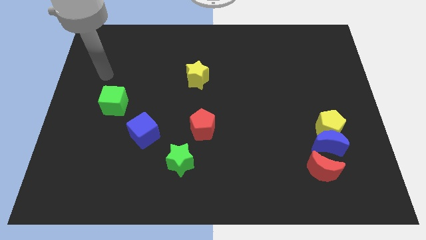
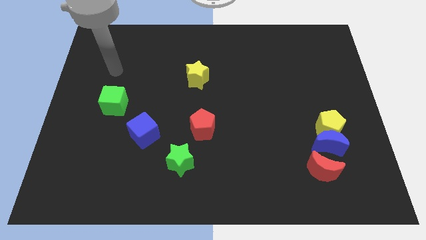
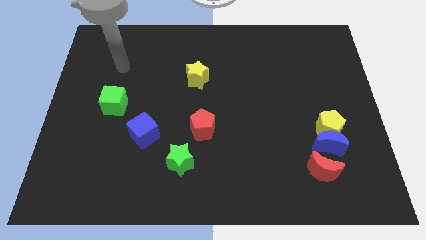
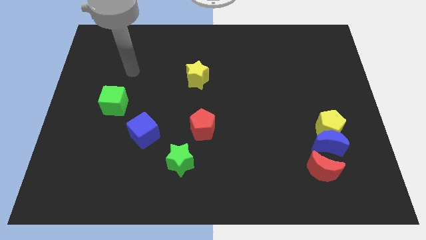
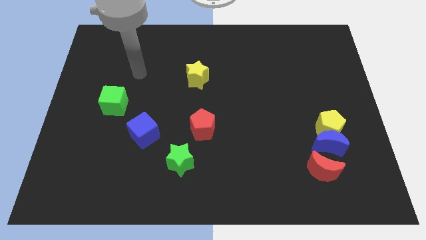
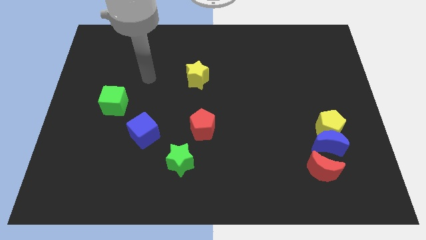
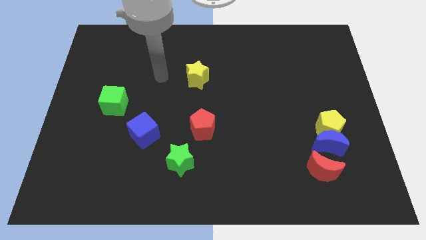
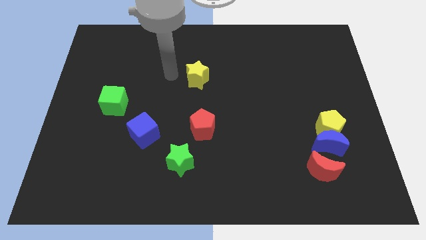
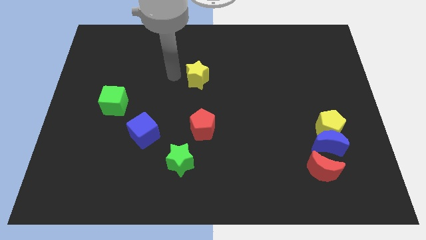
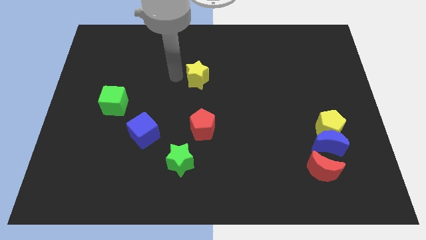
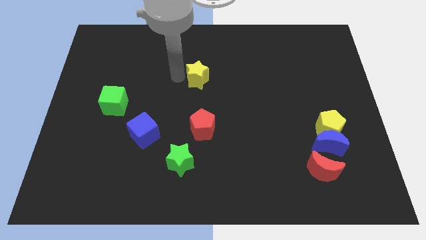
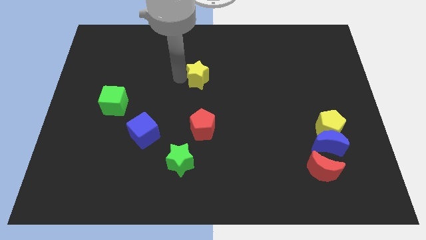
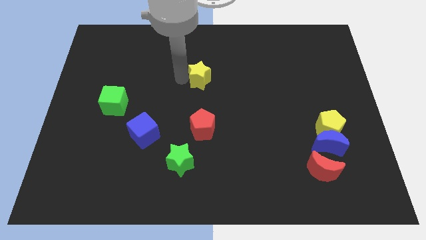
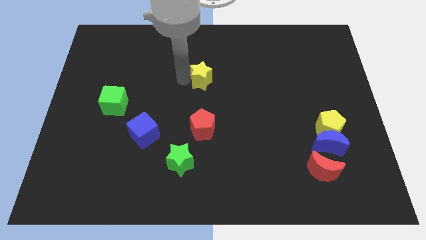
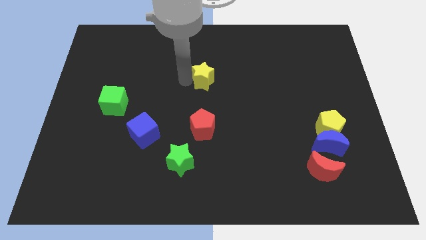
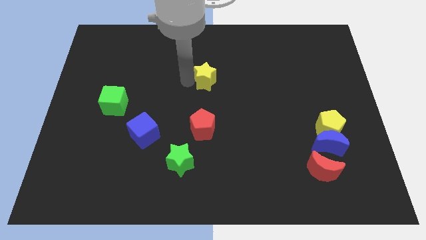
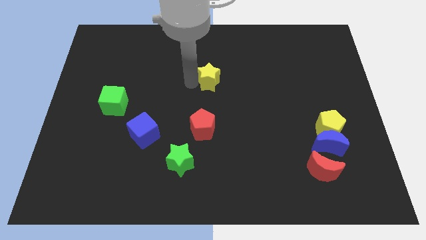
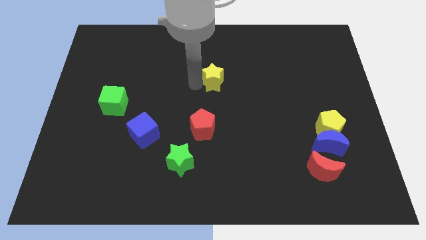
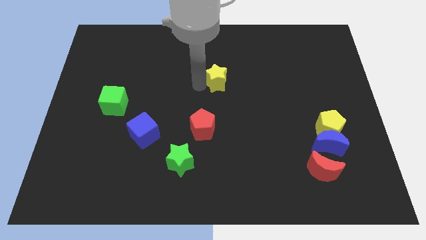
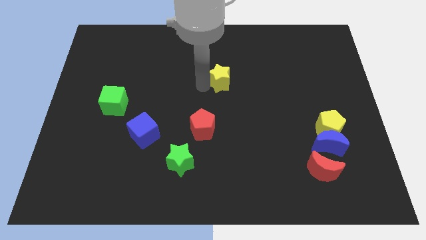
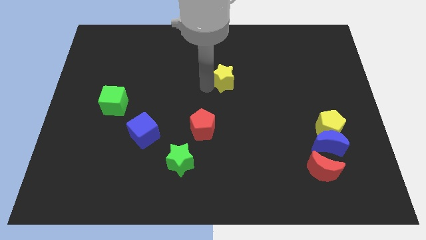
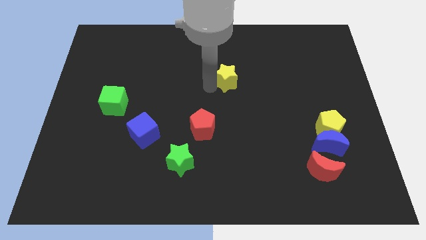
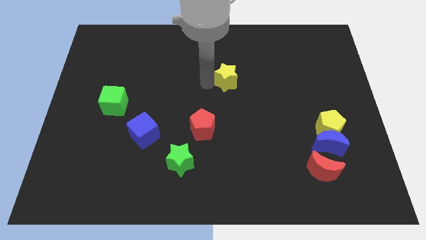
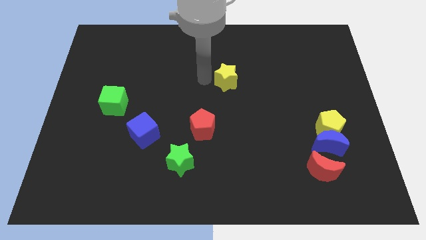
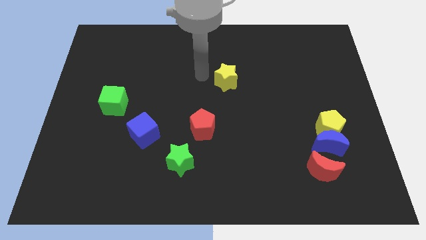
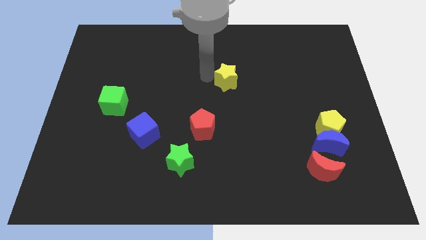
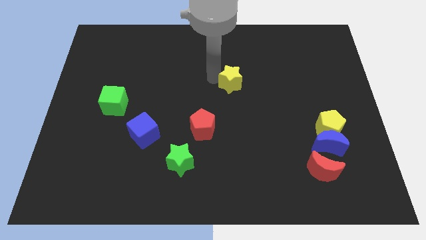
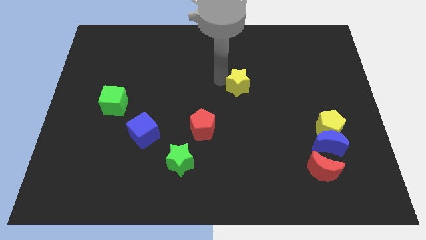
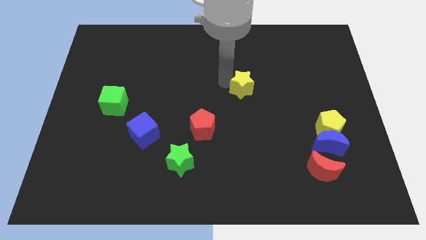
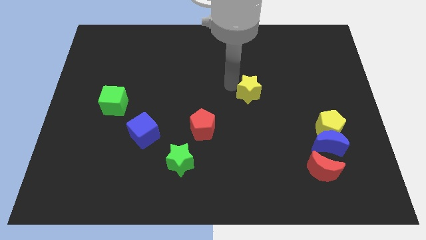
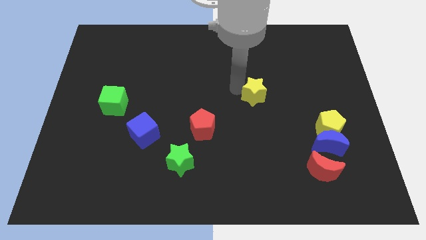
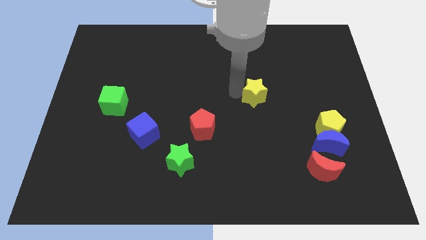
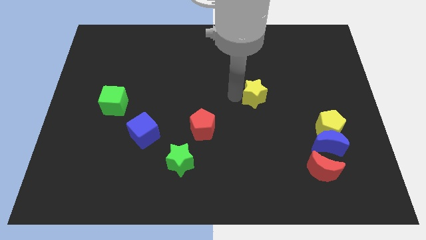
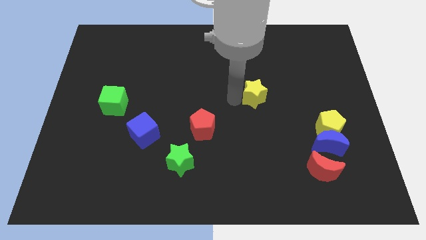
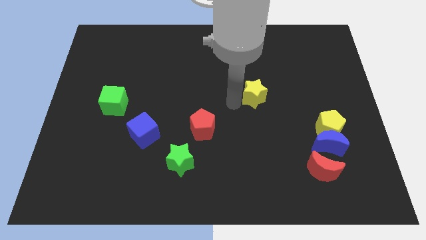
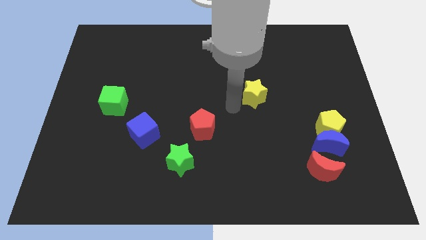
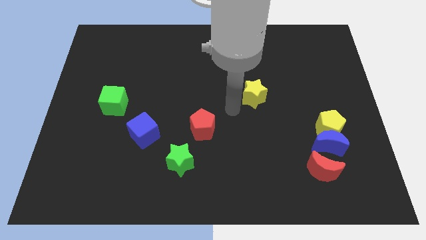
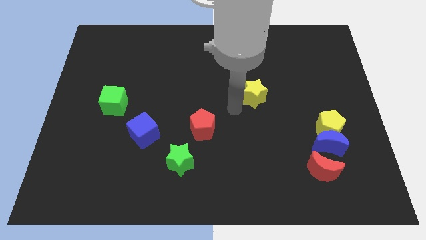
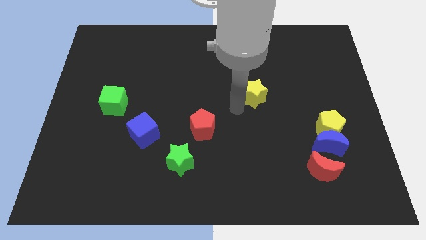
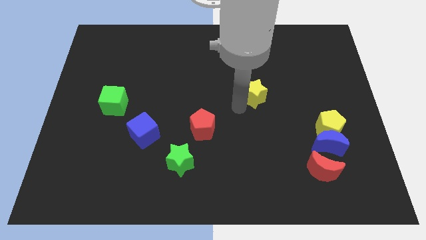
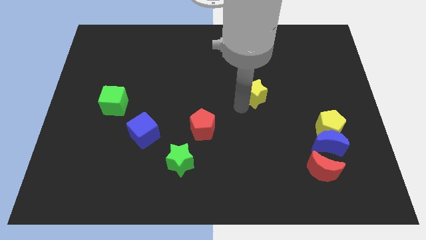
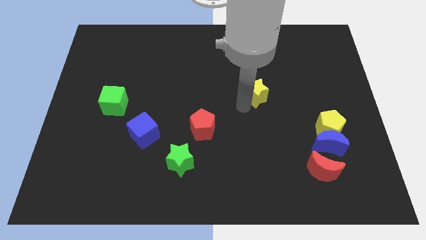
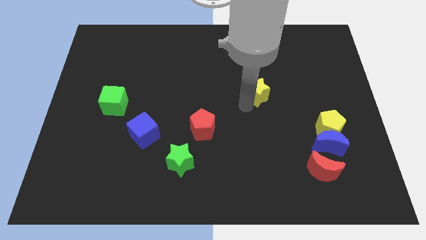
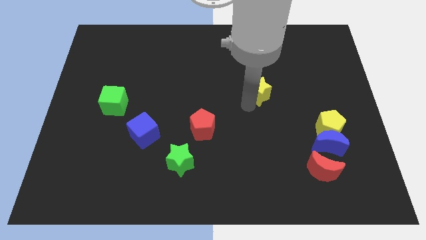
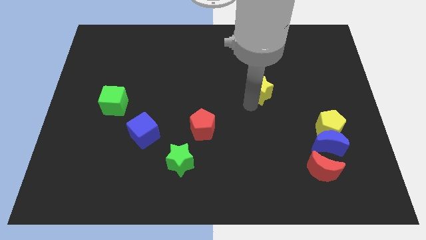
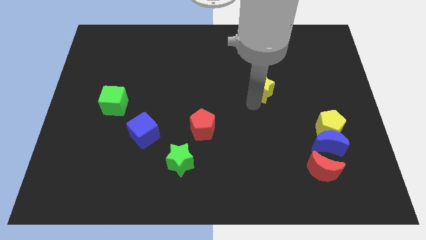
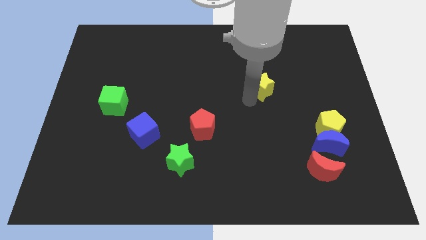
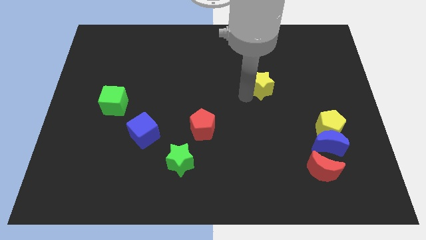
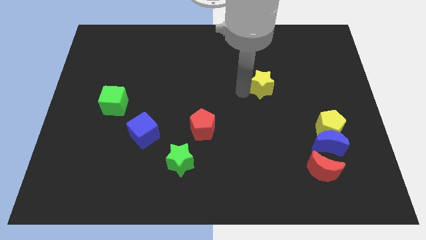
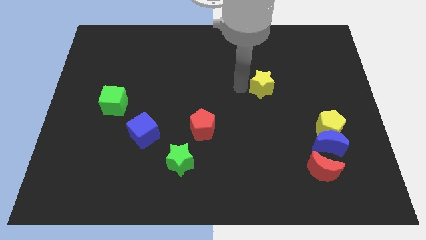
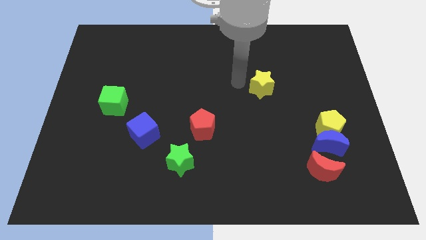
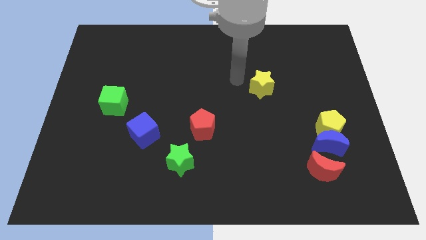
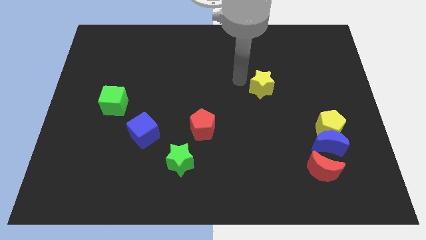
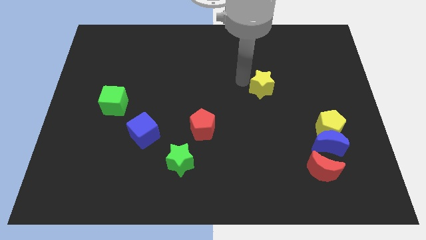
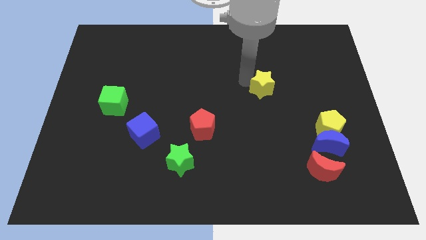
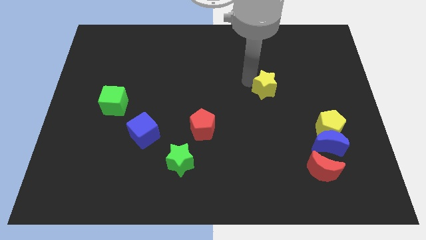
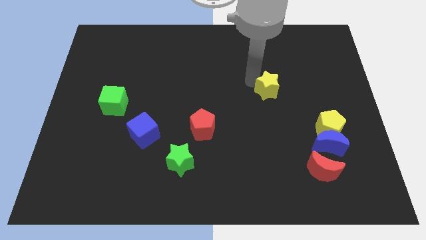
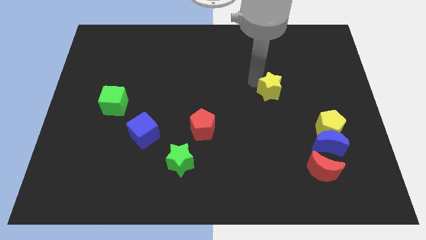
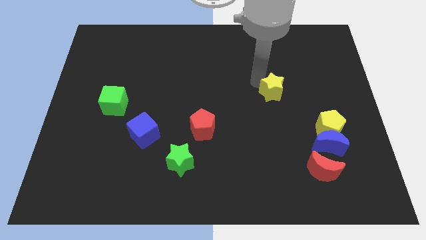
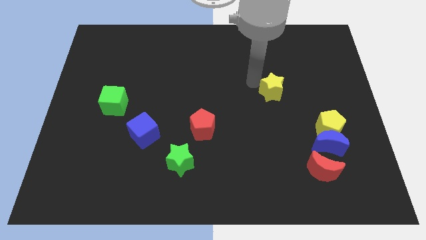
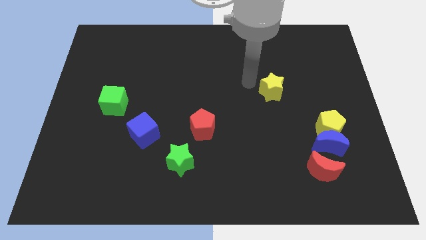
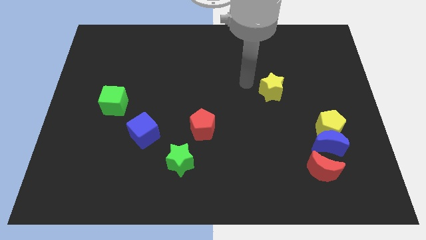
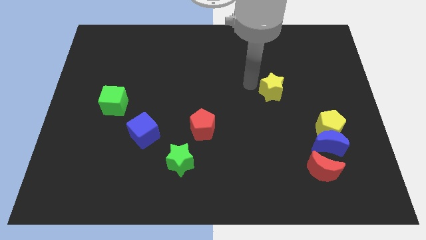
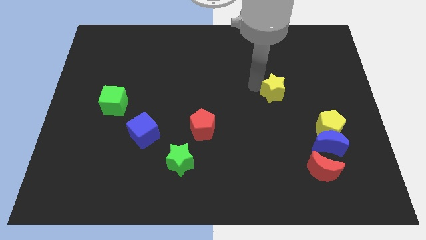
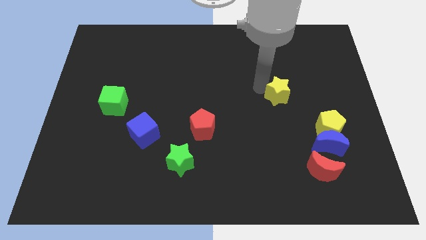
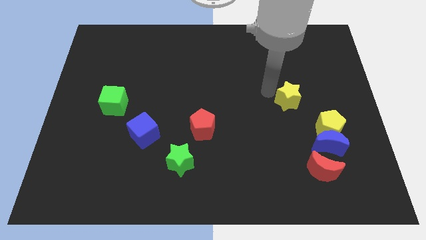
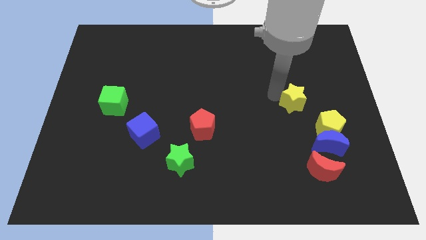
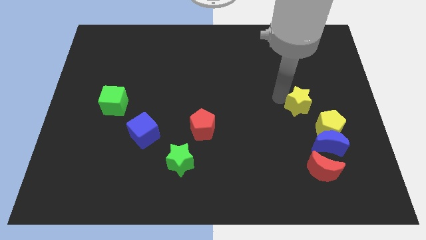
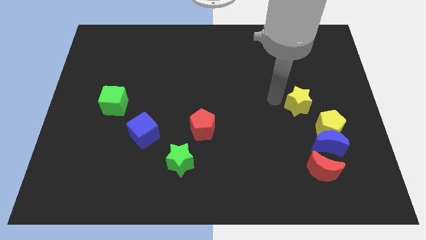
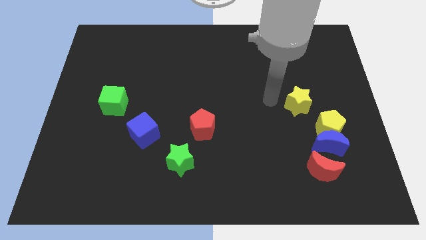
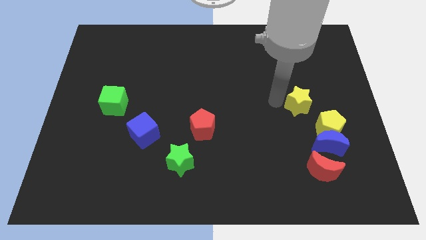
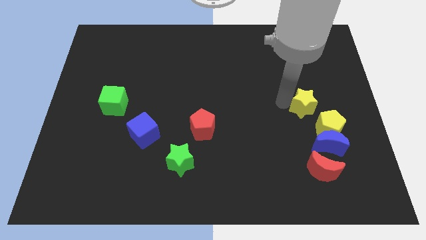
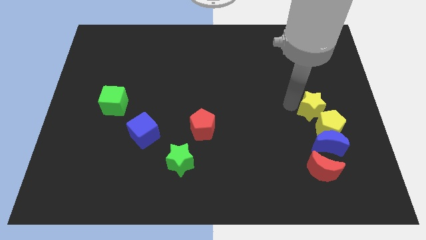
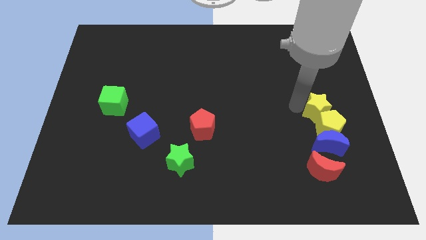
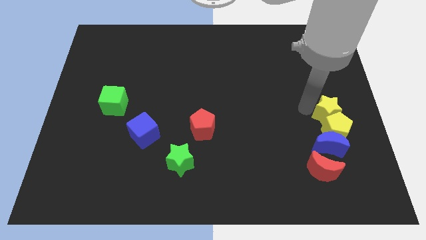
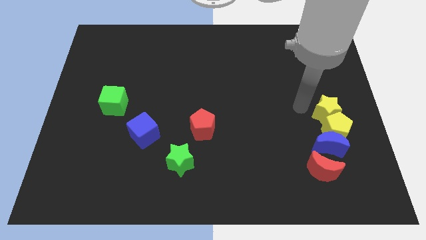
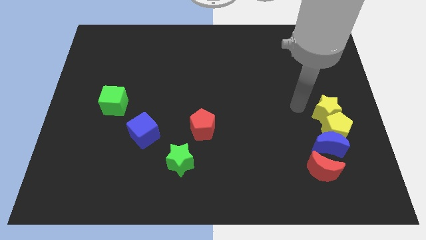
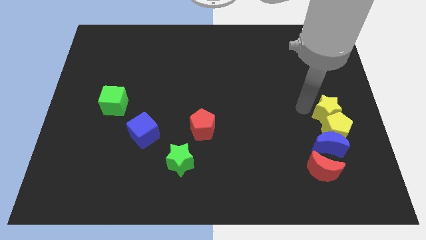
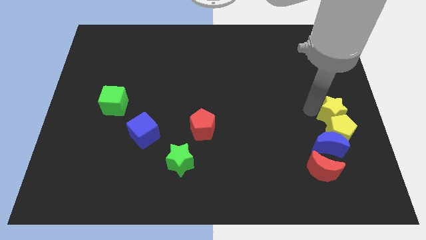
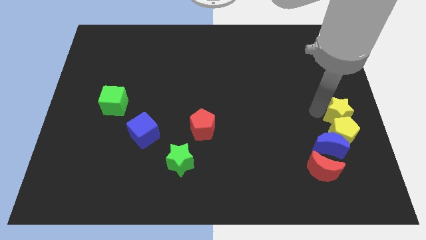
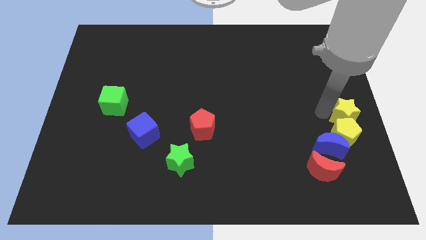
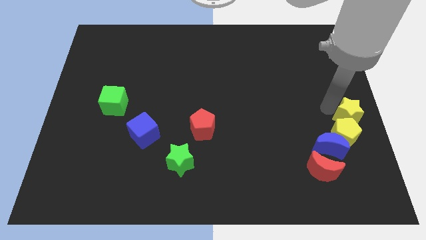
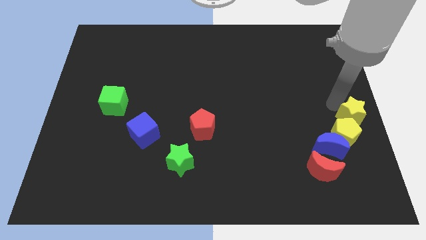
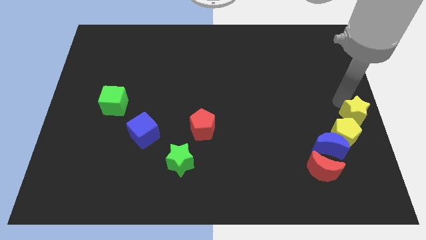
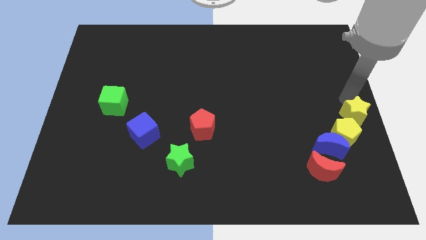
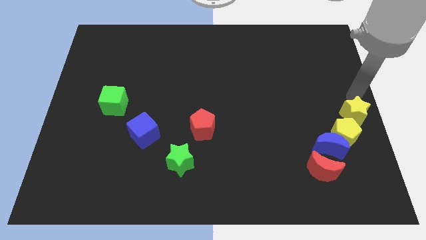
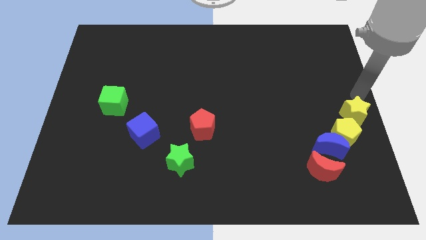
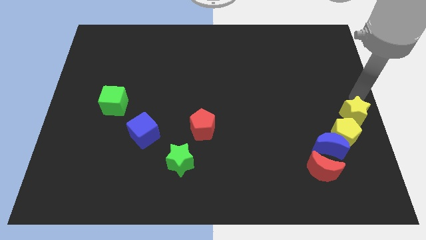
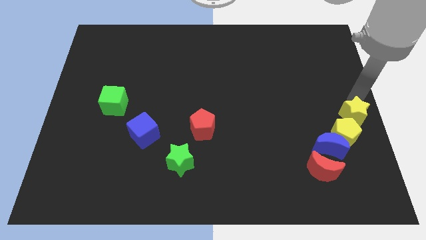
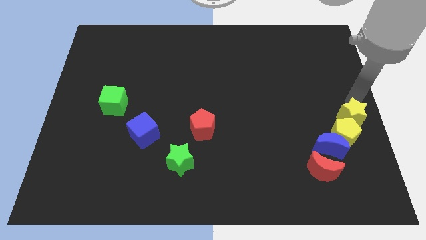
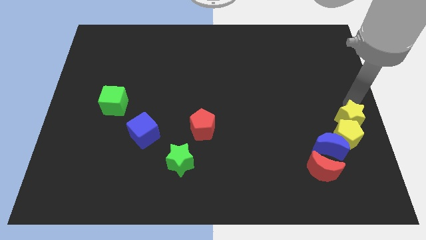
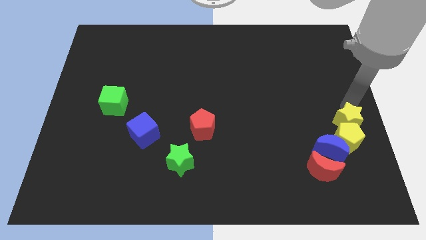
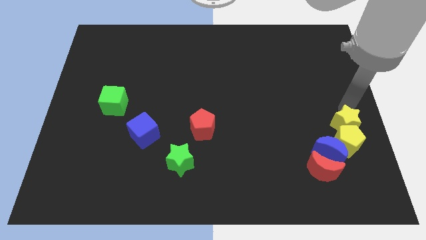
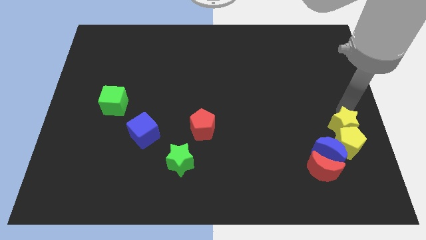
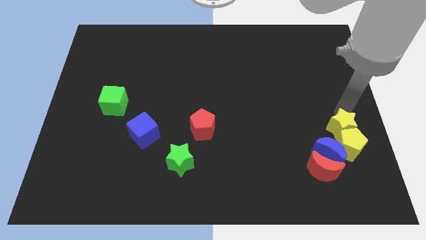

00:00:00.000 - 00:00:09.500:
push the yellow star to the top right side of the red moon
